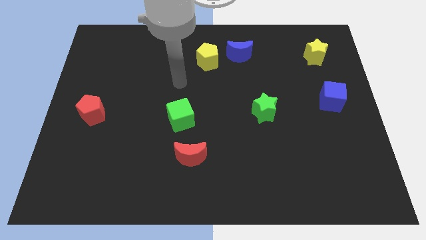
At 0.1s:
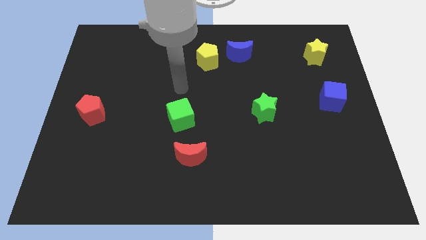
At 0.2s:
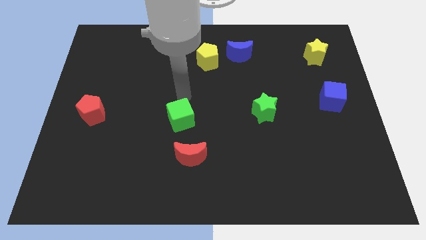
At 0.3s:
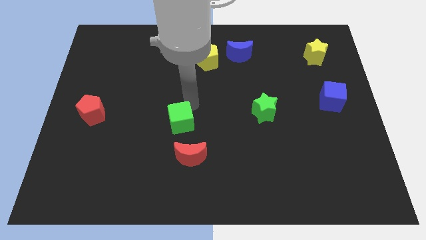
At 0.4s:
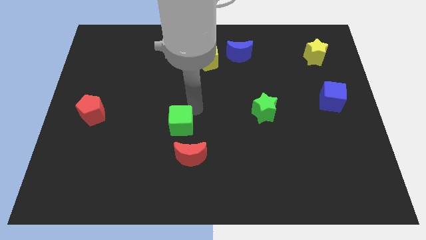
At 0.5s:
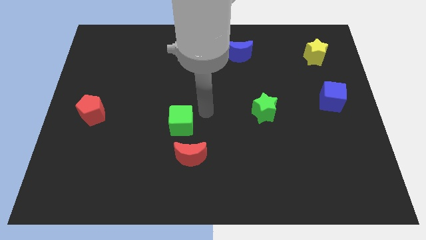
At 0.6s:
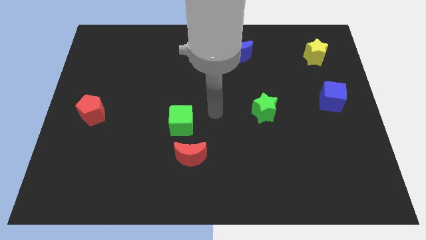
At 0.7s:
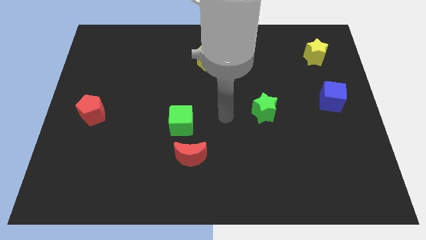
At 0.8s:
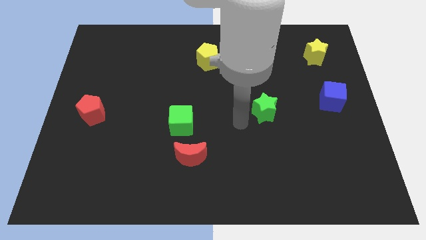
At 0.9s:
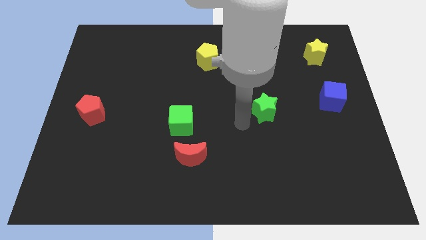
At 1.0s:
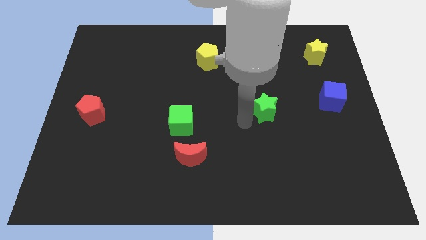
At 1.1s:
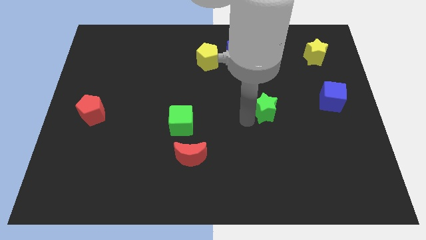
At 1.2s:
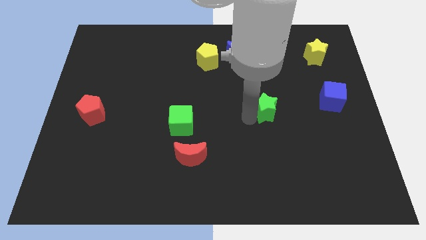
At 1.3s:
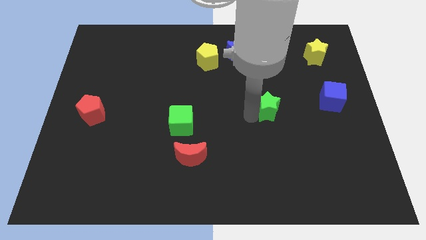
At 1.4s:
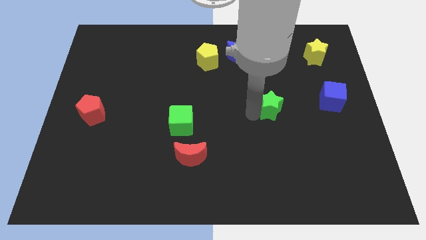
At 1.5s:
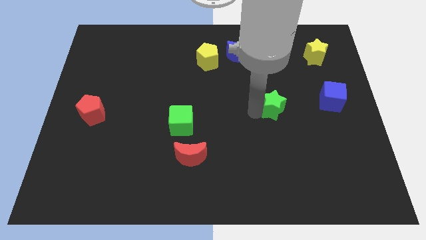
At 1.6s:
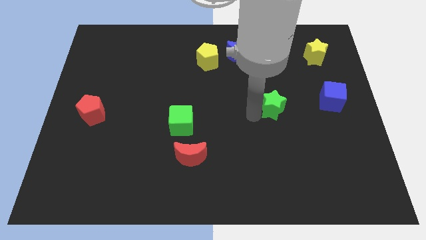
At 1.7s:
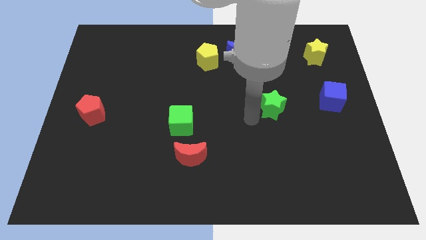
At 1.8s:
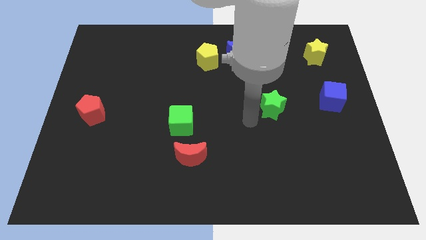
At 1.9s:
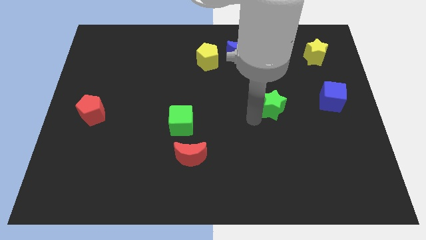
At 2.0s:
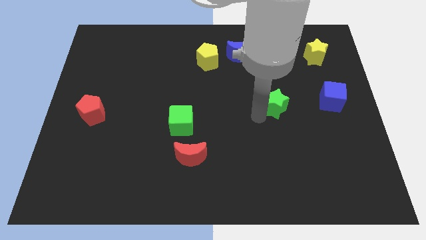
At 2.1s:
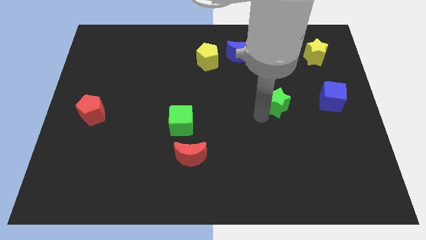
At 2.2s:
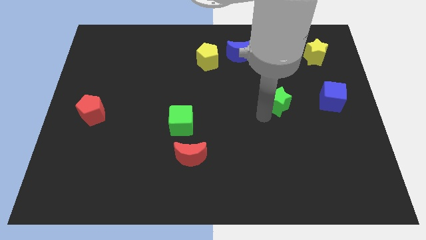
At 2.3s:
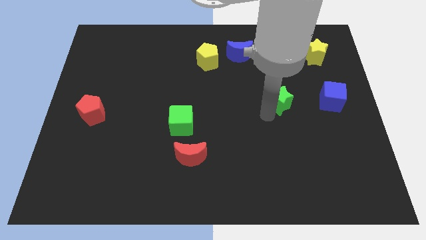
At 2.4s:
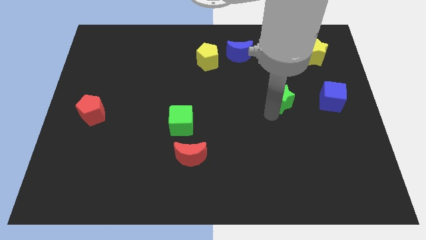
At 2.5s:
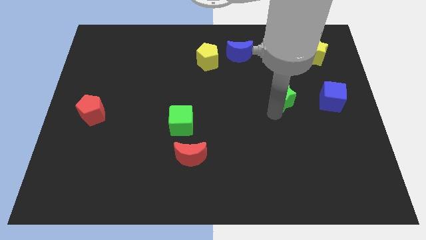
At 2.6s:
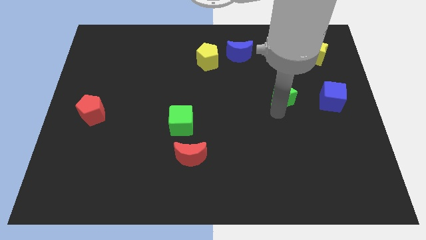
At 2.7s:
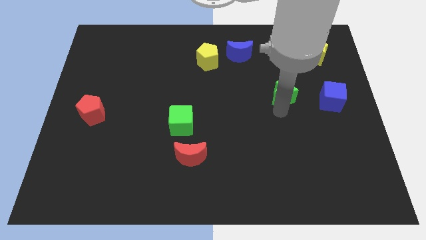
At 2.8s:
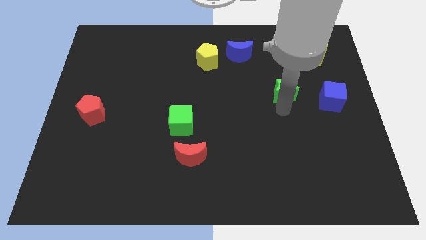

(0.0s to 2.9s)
push the green star upwards and right diagonally a little

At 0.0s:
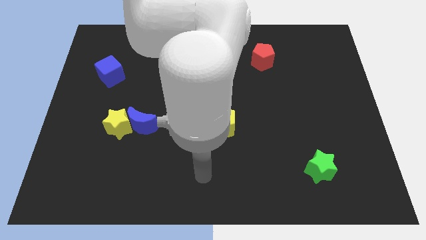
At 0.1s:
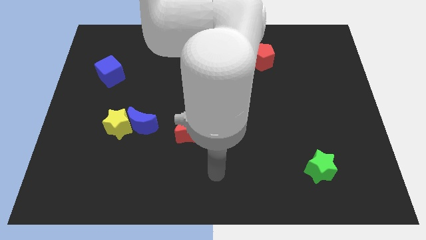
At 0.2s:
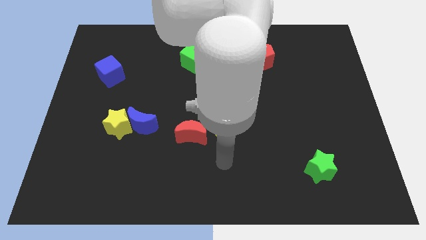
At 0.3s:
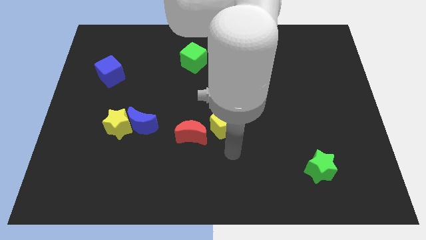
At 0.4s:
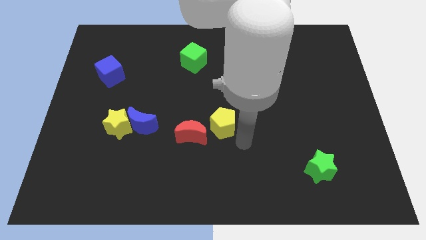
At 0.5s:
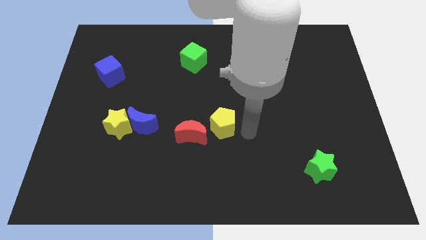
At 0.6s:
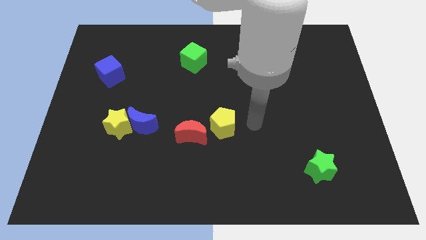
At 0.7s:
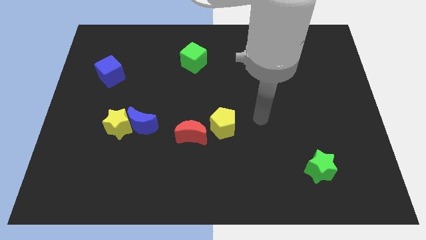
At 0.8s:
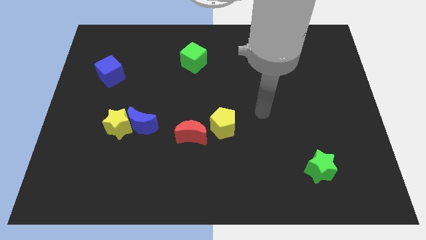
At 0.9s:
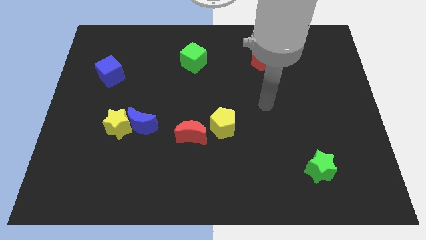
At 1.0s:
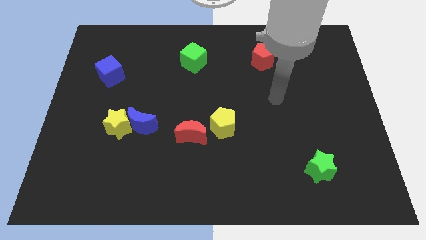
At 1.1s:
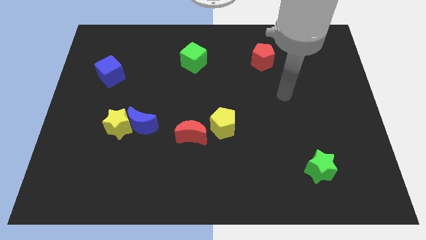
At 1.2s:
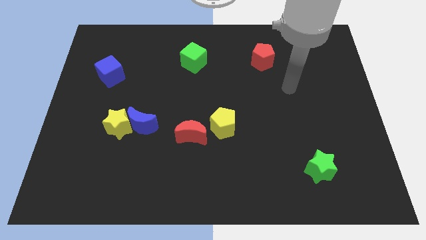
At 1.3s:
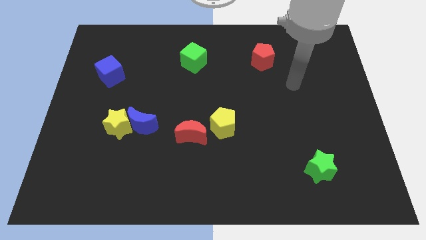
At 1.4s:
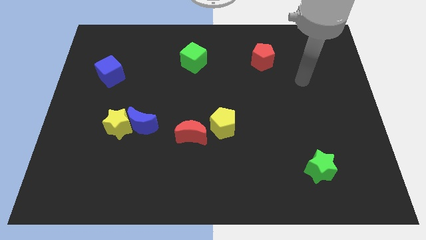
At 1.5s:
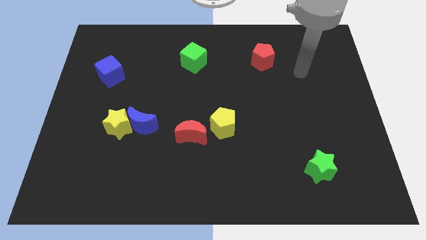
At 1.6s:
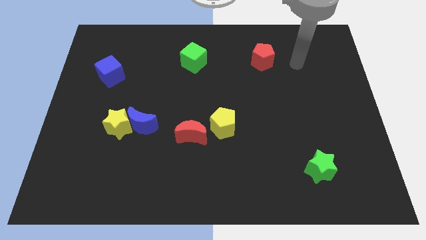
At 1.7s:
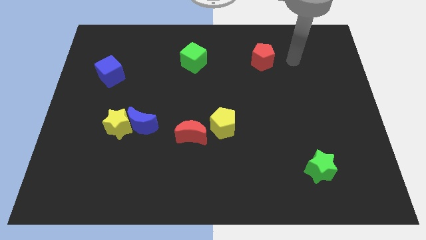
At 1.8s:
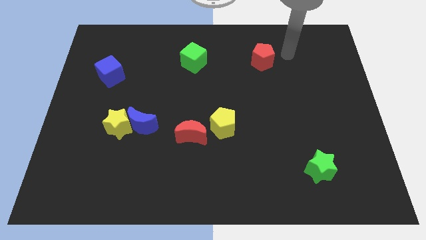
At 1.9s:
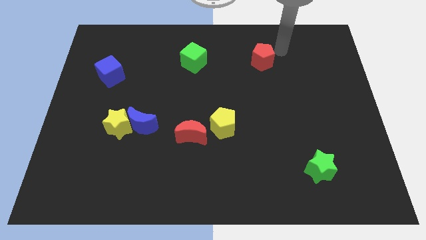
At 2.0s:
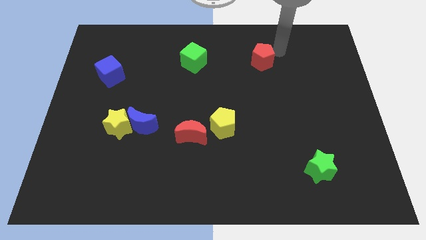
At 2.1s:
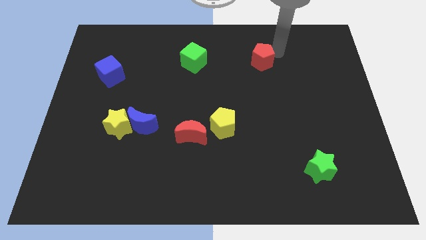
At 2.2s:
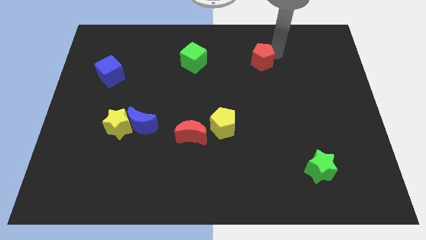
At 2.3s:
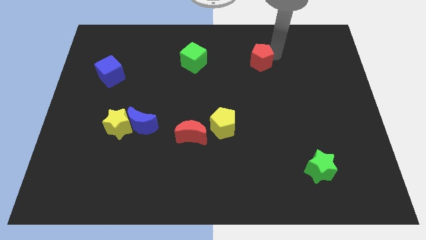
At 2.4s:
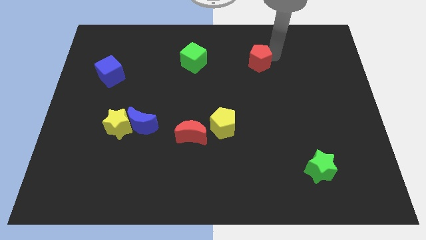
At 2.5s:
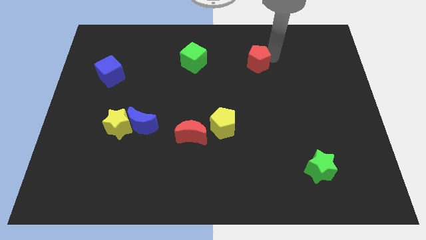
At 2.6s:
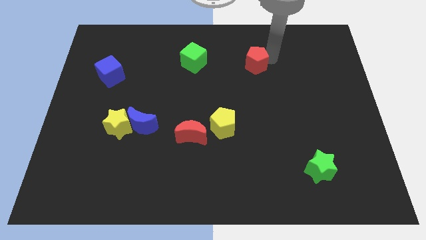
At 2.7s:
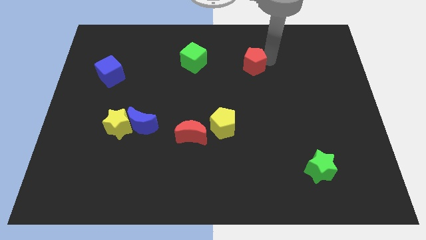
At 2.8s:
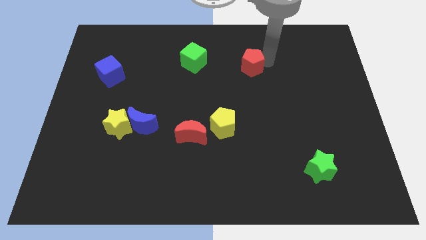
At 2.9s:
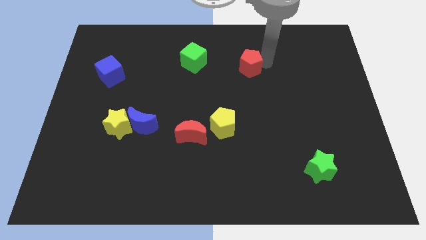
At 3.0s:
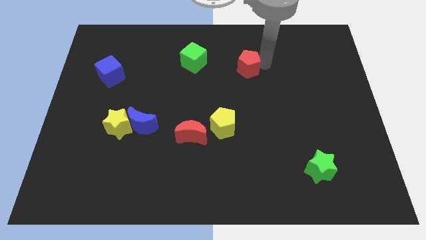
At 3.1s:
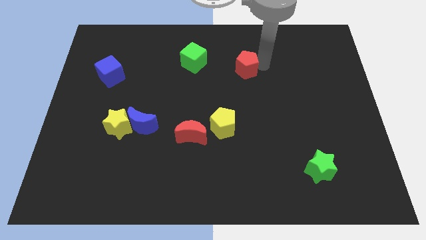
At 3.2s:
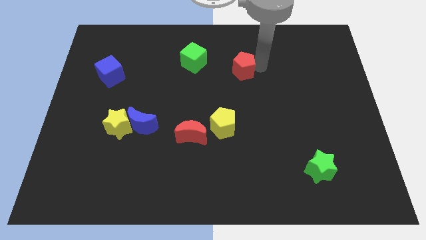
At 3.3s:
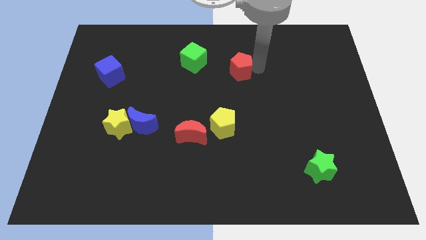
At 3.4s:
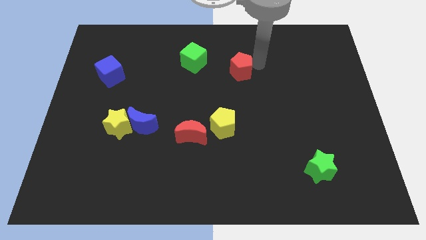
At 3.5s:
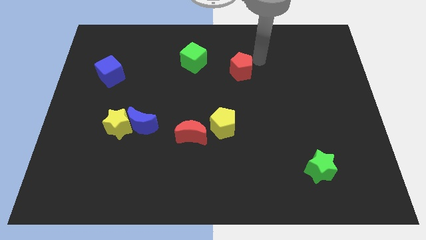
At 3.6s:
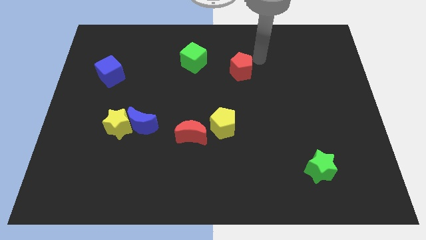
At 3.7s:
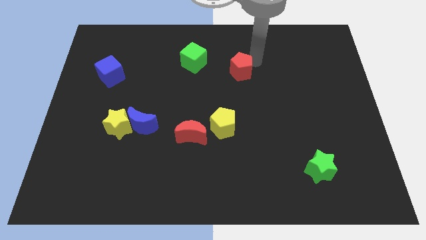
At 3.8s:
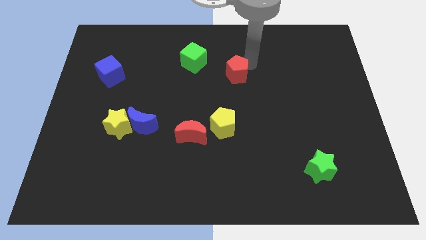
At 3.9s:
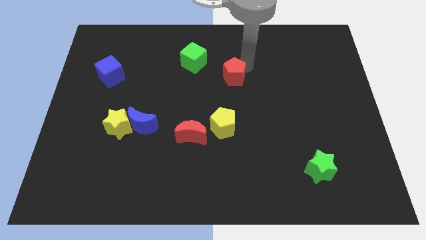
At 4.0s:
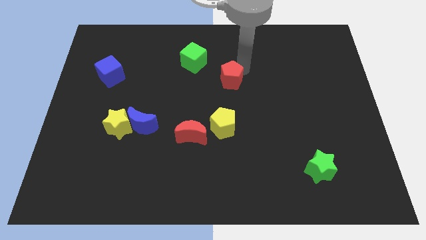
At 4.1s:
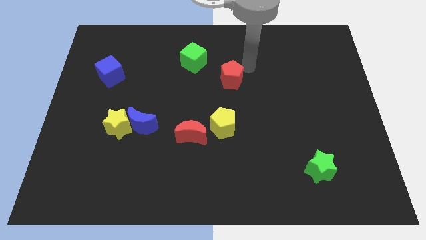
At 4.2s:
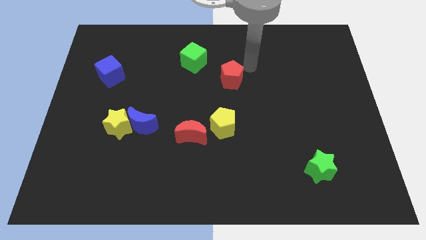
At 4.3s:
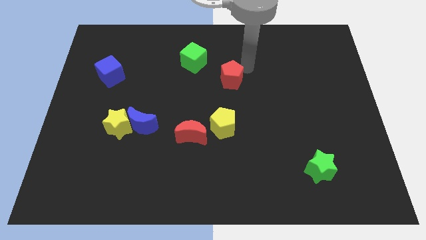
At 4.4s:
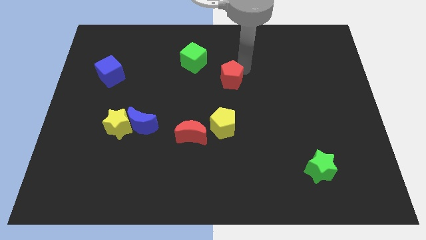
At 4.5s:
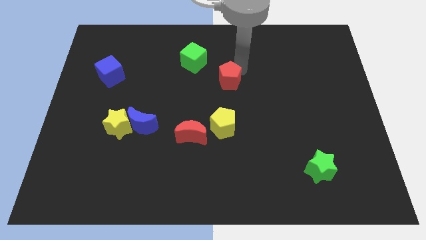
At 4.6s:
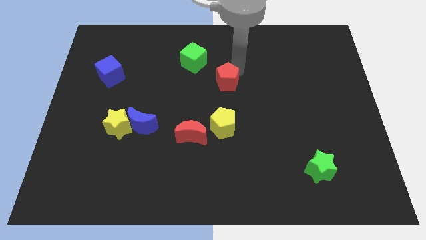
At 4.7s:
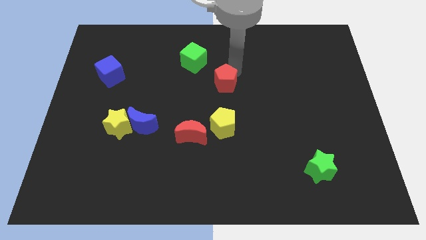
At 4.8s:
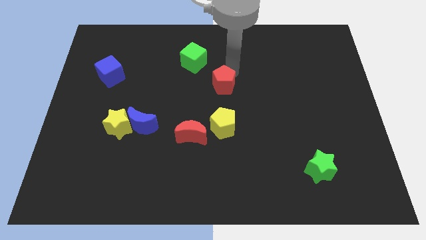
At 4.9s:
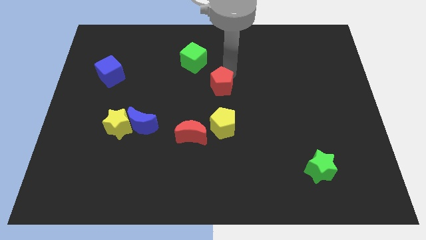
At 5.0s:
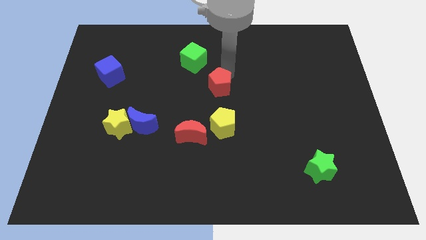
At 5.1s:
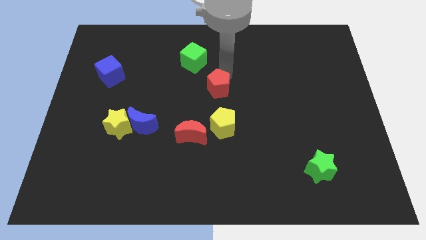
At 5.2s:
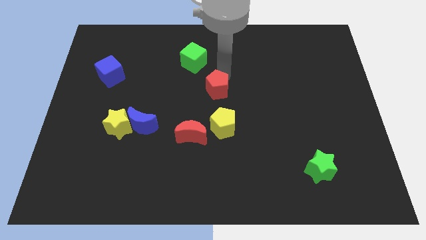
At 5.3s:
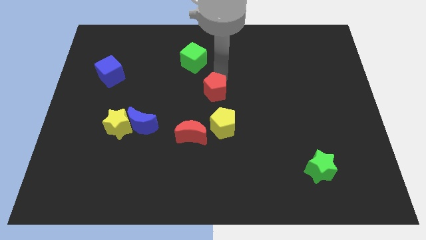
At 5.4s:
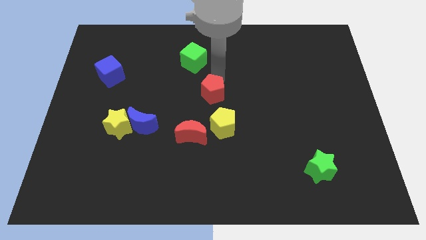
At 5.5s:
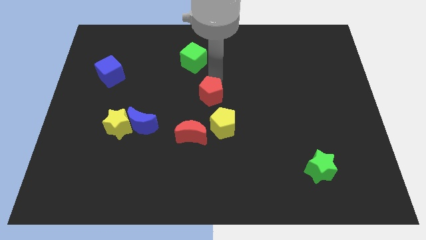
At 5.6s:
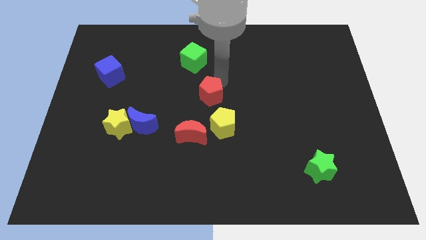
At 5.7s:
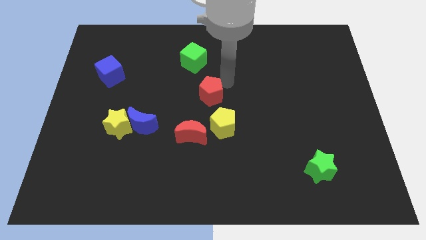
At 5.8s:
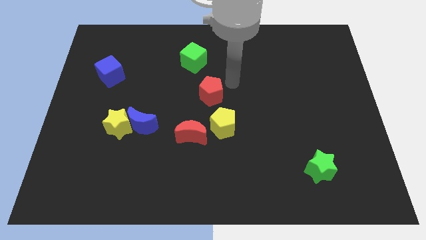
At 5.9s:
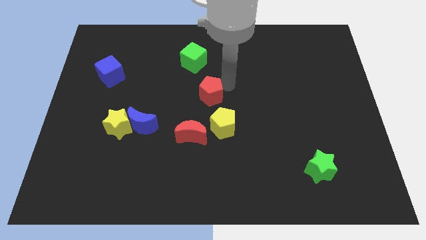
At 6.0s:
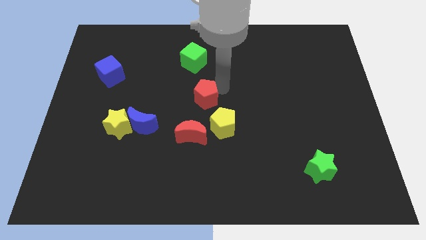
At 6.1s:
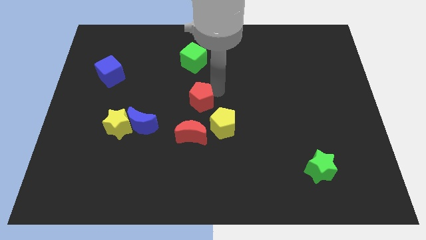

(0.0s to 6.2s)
push the red pentagon down and left
